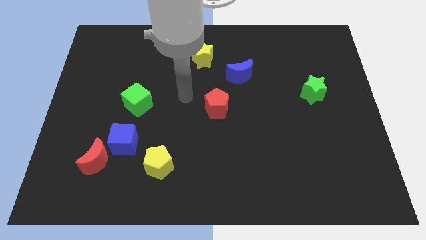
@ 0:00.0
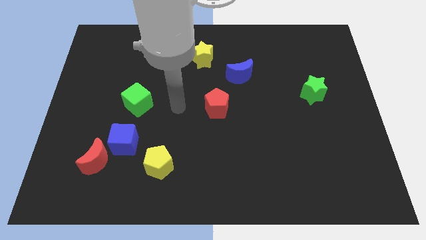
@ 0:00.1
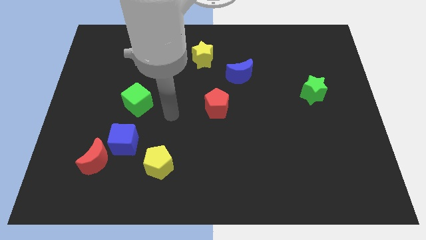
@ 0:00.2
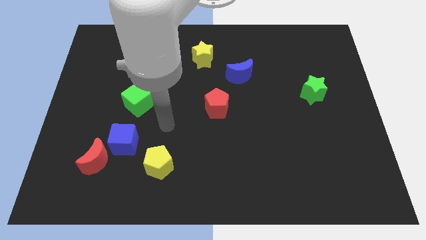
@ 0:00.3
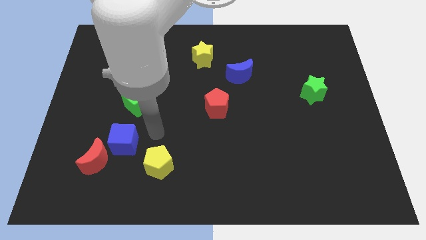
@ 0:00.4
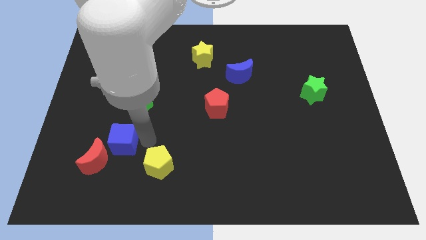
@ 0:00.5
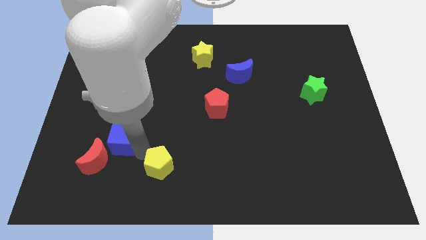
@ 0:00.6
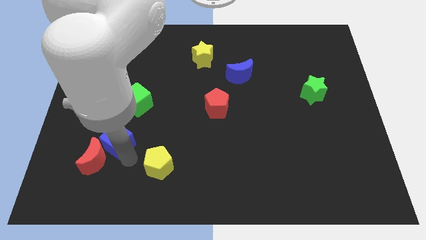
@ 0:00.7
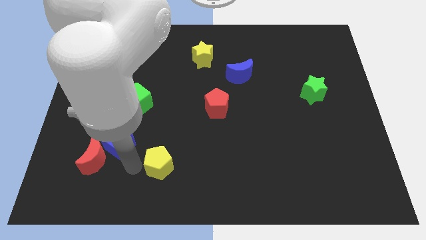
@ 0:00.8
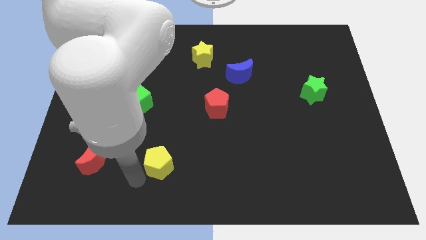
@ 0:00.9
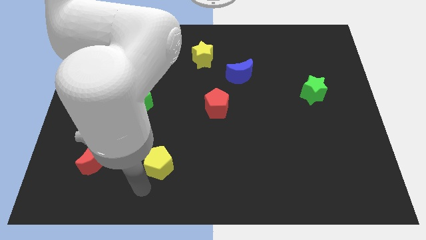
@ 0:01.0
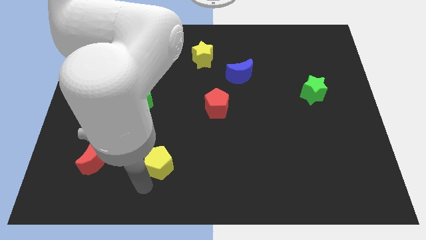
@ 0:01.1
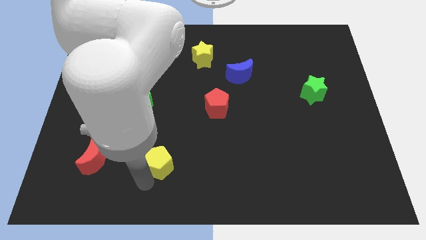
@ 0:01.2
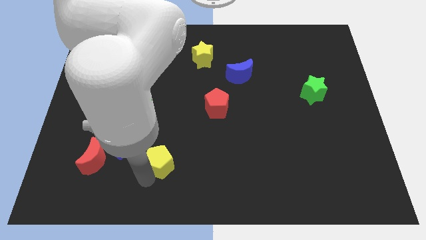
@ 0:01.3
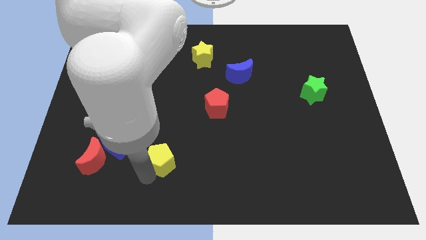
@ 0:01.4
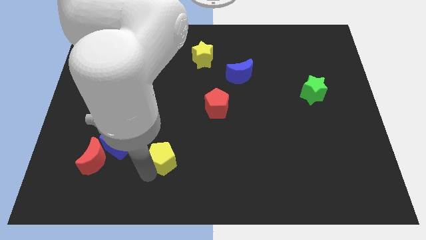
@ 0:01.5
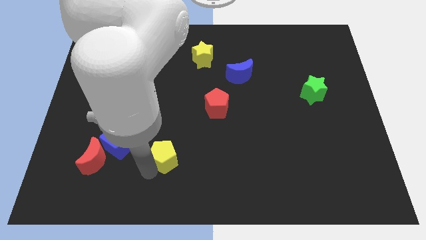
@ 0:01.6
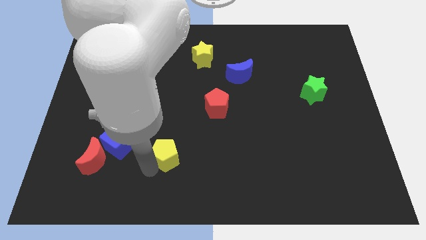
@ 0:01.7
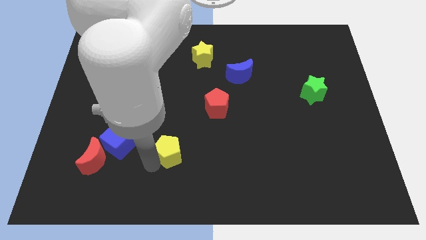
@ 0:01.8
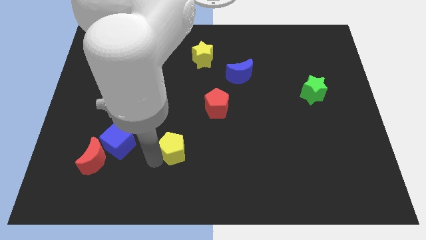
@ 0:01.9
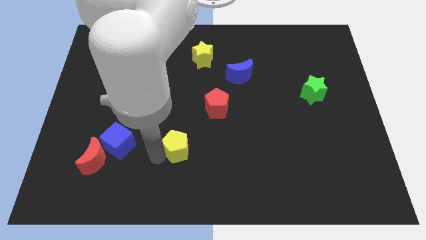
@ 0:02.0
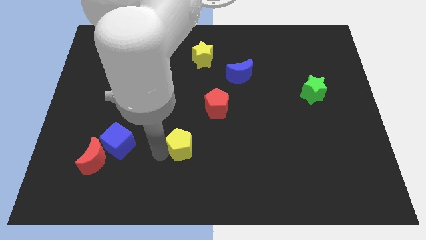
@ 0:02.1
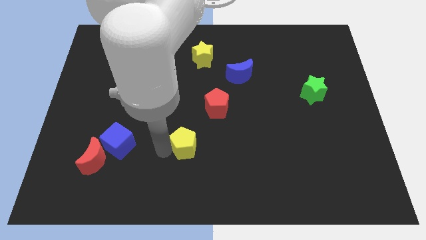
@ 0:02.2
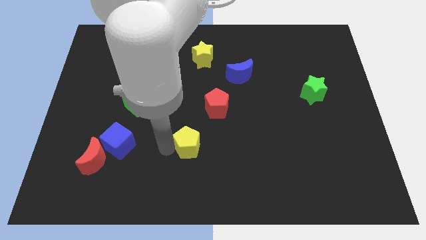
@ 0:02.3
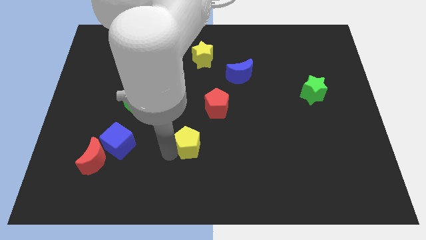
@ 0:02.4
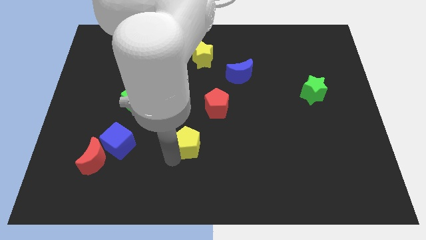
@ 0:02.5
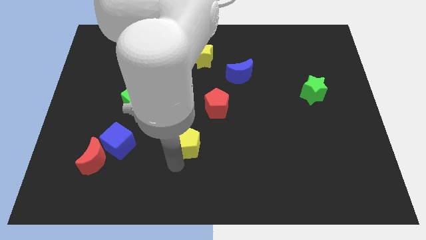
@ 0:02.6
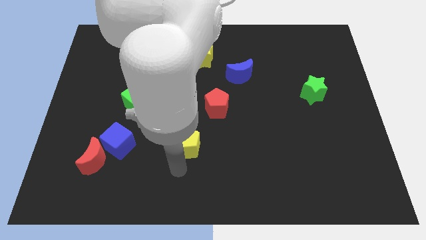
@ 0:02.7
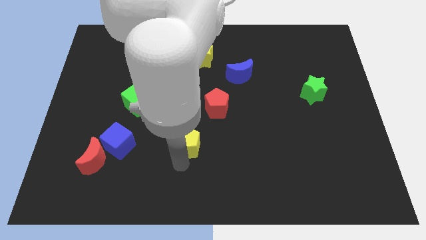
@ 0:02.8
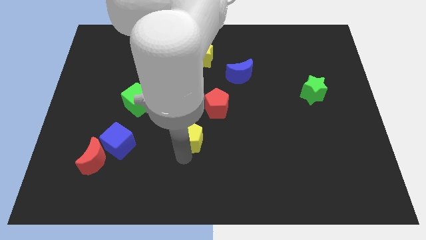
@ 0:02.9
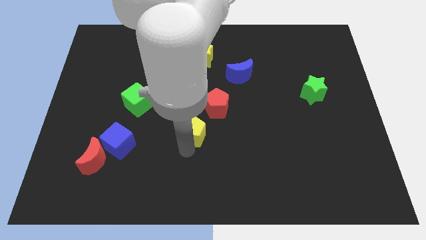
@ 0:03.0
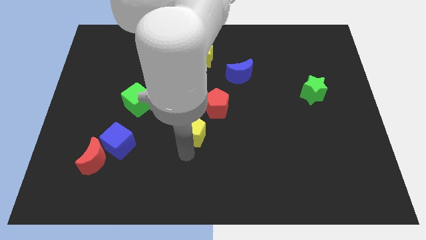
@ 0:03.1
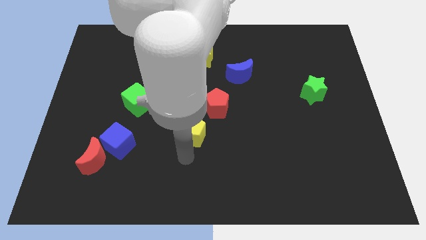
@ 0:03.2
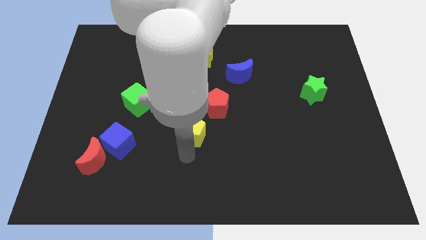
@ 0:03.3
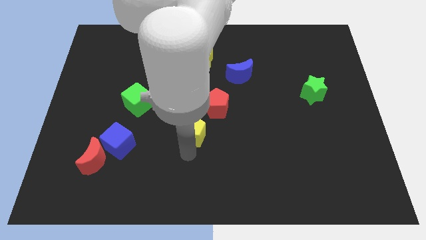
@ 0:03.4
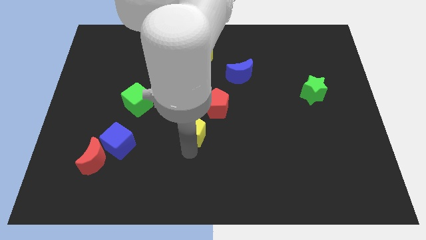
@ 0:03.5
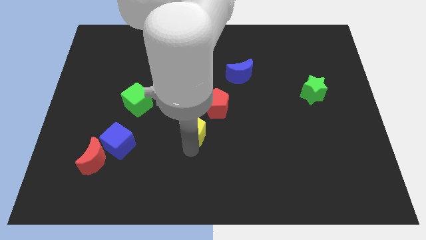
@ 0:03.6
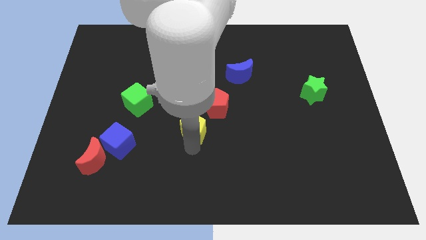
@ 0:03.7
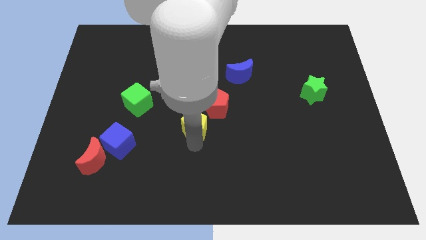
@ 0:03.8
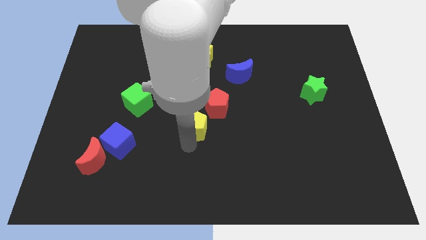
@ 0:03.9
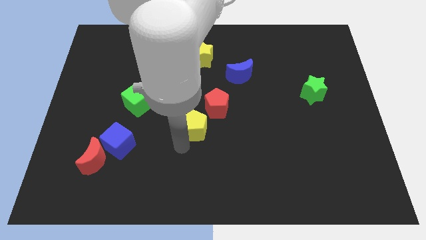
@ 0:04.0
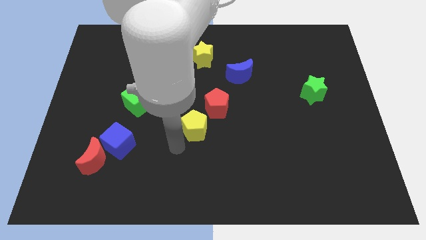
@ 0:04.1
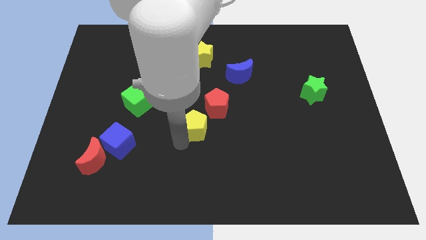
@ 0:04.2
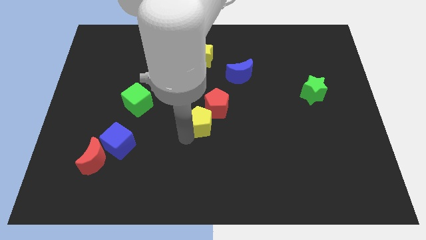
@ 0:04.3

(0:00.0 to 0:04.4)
push the yellow pentagon towards the red pentagon

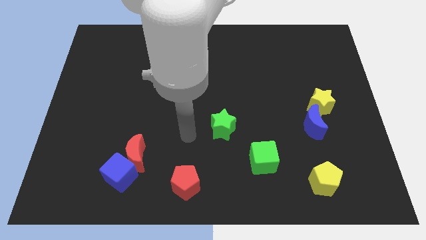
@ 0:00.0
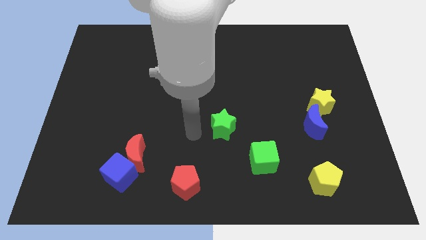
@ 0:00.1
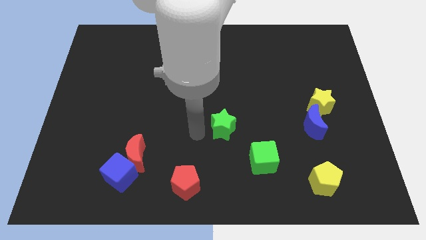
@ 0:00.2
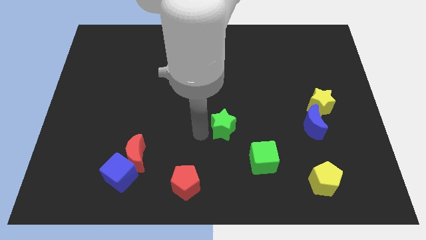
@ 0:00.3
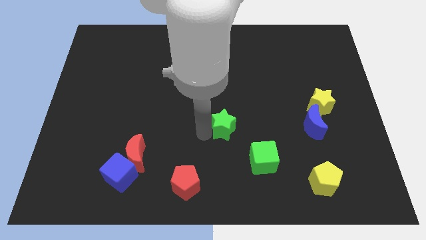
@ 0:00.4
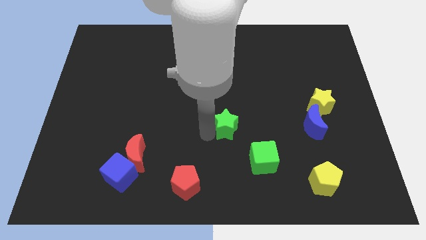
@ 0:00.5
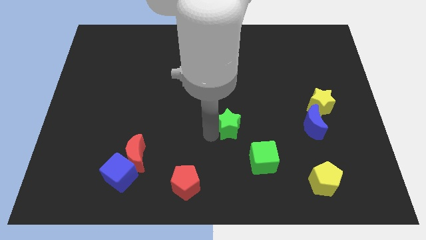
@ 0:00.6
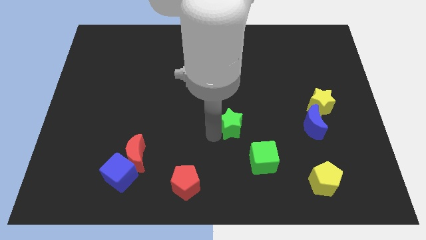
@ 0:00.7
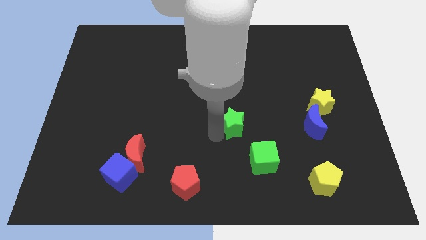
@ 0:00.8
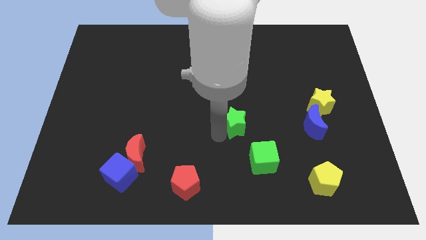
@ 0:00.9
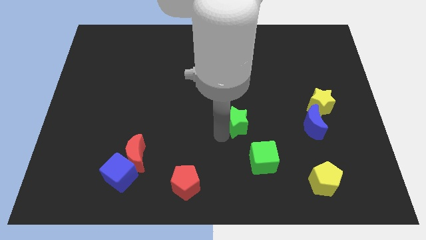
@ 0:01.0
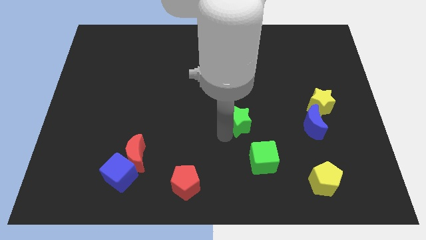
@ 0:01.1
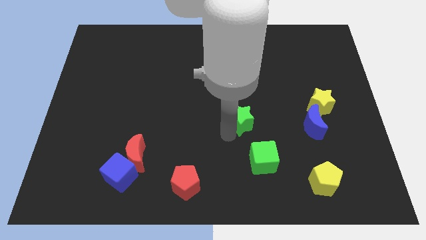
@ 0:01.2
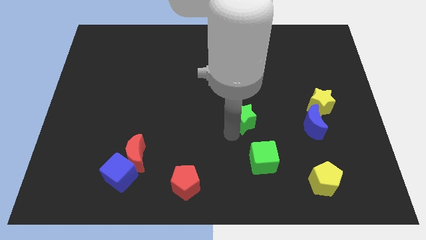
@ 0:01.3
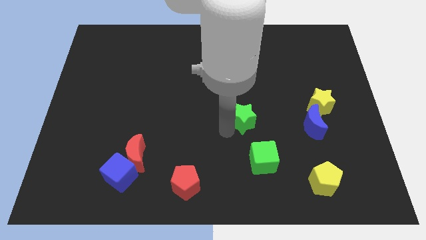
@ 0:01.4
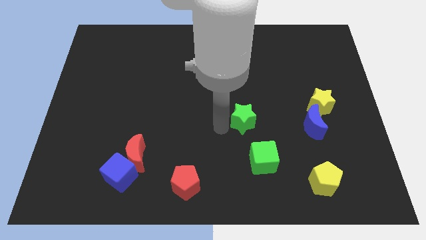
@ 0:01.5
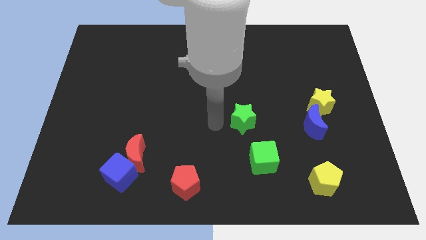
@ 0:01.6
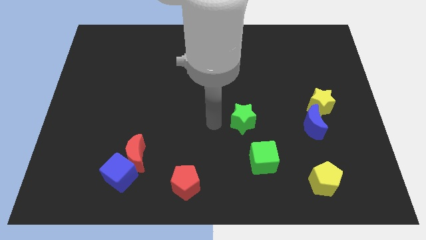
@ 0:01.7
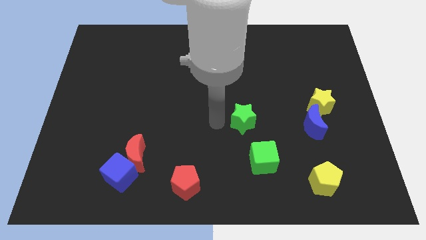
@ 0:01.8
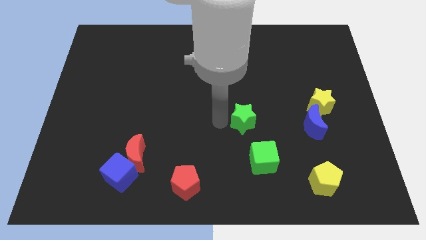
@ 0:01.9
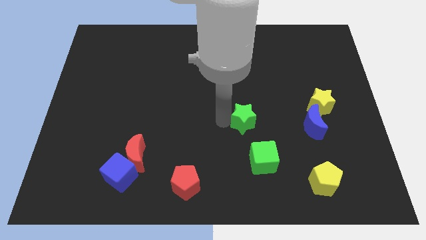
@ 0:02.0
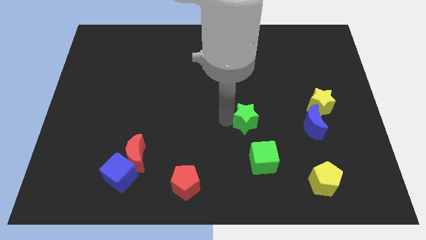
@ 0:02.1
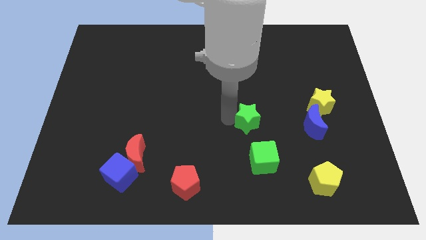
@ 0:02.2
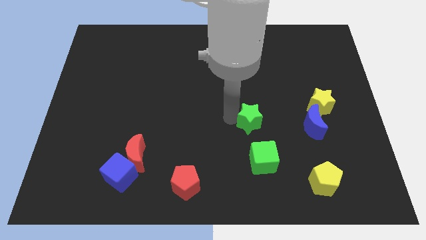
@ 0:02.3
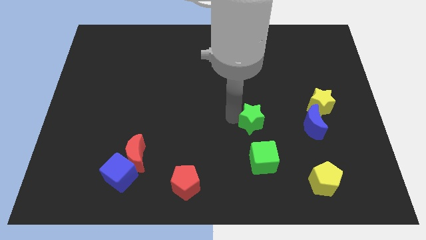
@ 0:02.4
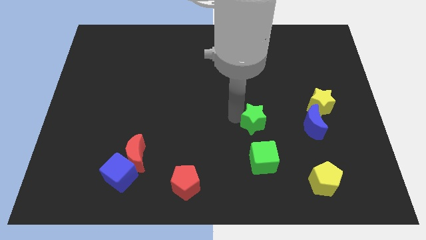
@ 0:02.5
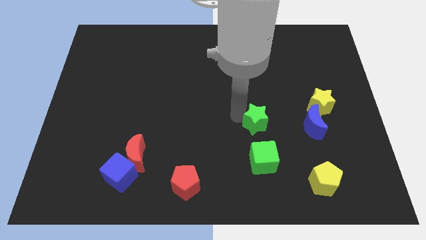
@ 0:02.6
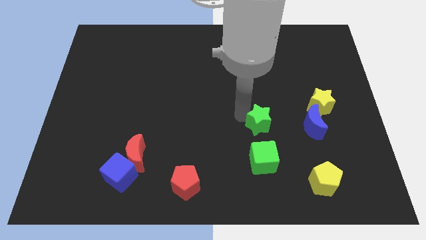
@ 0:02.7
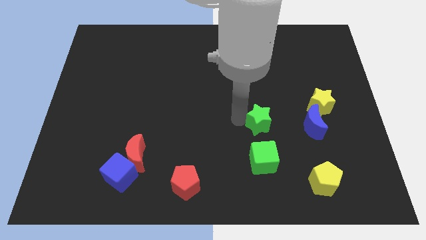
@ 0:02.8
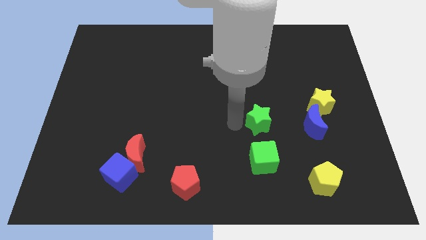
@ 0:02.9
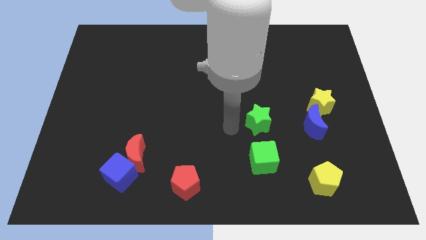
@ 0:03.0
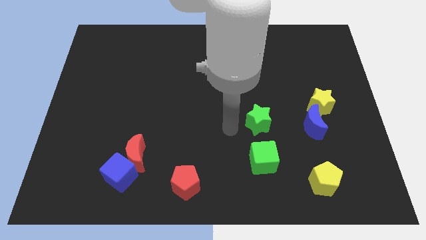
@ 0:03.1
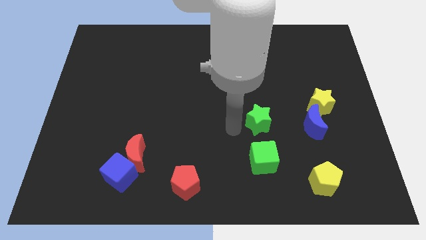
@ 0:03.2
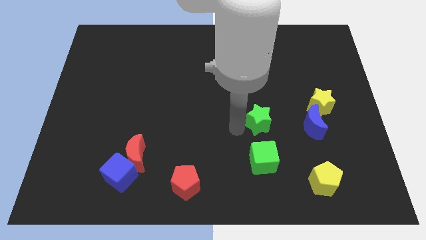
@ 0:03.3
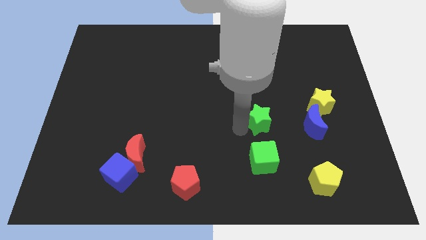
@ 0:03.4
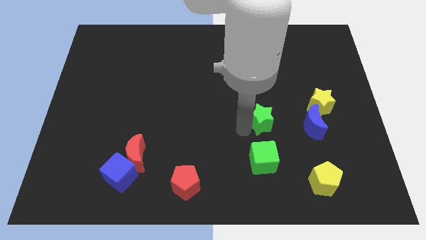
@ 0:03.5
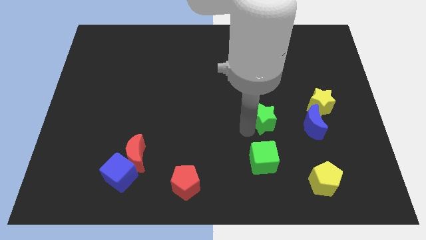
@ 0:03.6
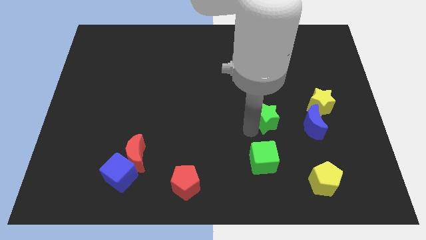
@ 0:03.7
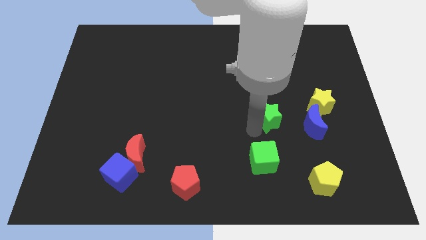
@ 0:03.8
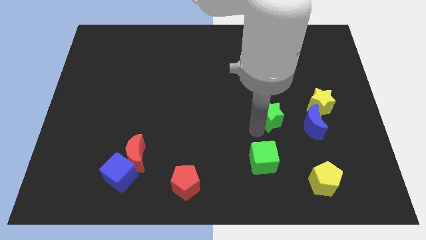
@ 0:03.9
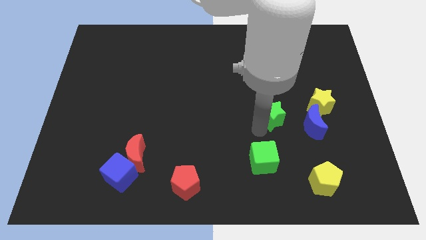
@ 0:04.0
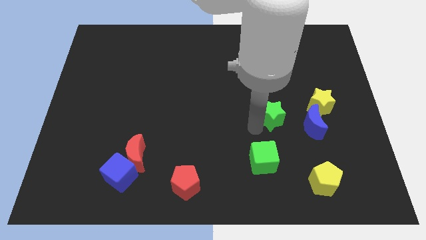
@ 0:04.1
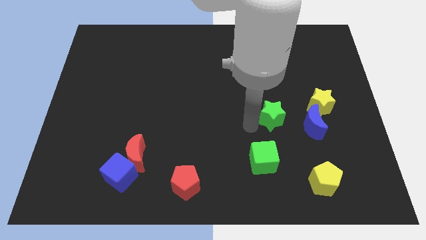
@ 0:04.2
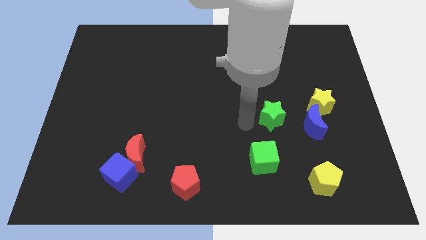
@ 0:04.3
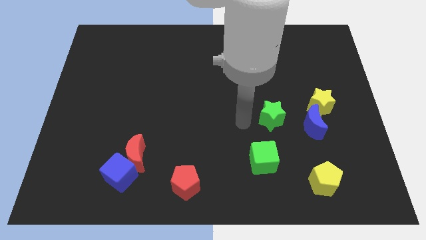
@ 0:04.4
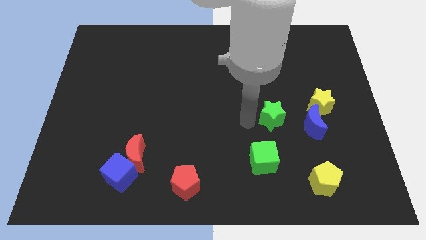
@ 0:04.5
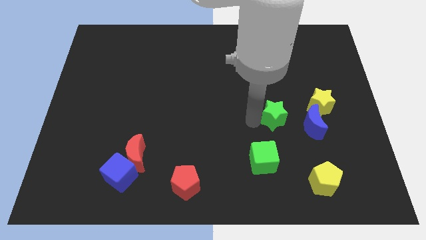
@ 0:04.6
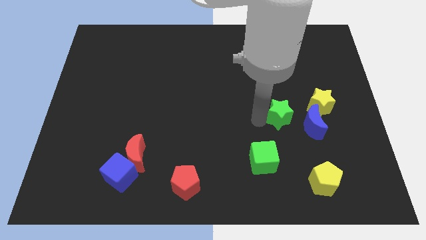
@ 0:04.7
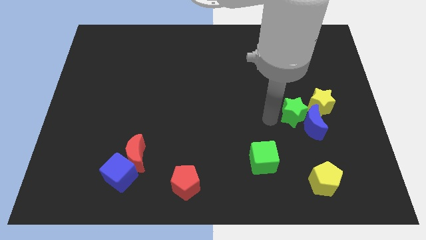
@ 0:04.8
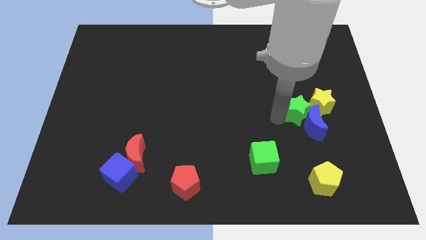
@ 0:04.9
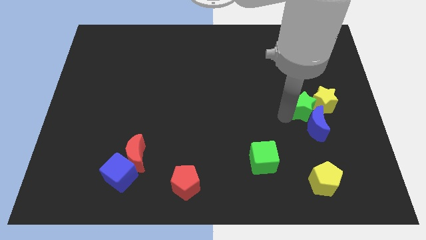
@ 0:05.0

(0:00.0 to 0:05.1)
push the green star towards the yellow star
